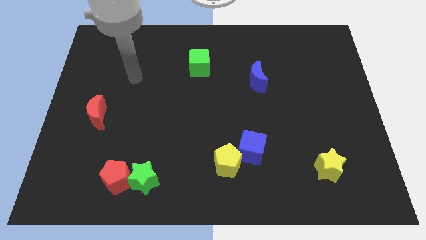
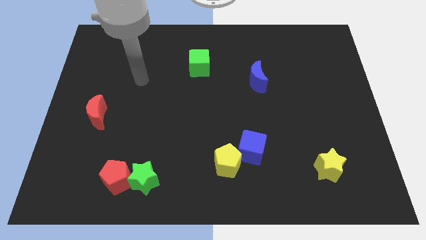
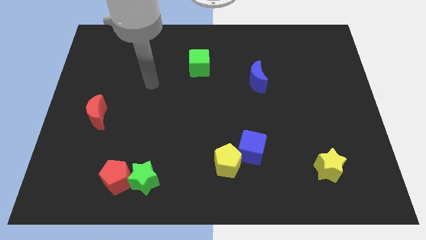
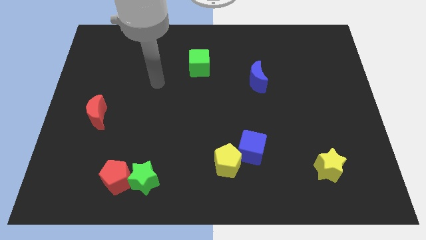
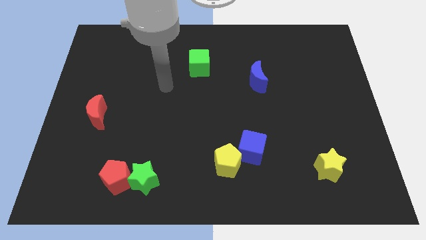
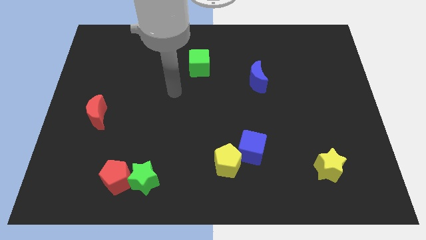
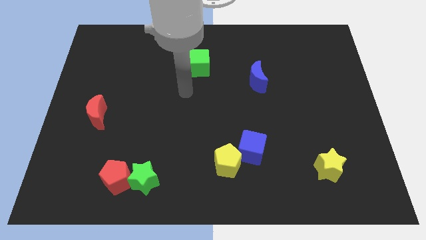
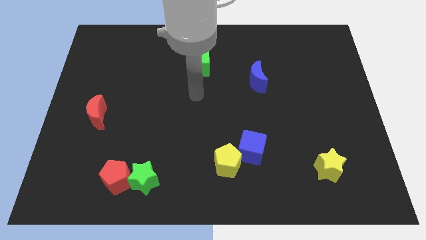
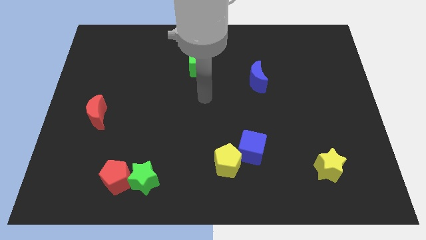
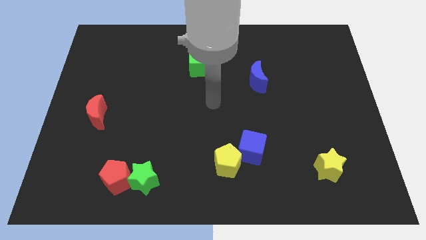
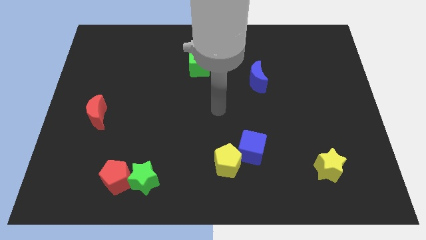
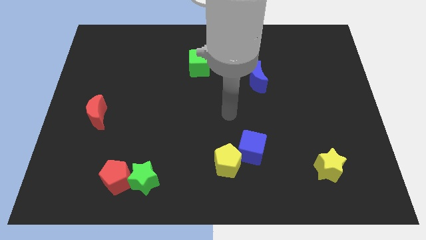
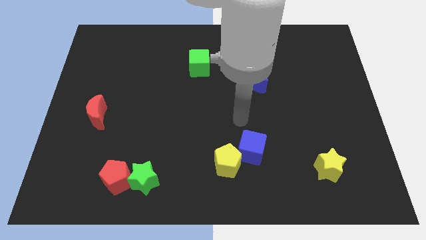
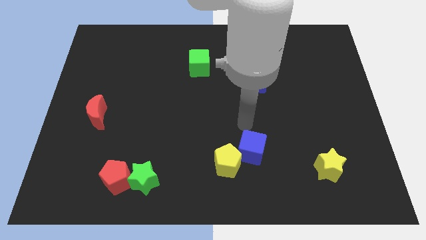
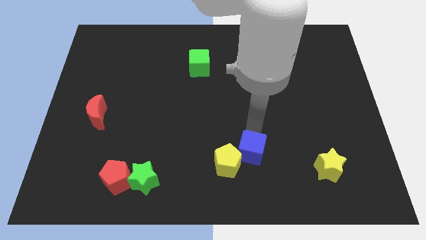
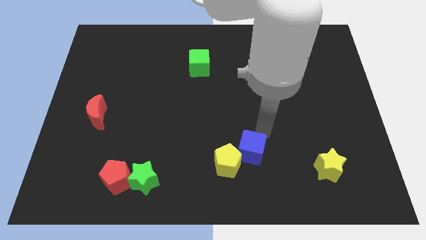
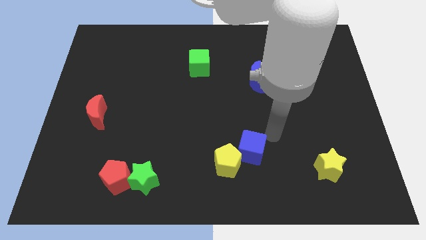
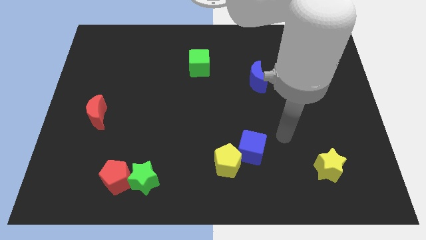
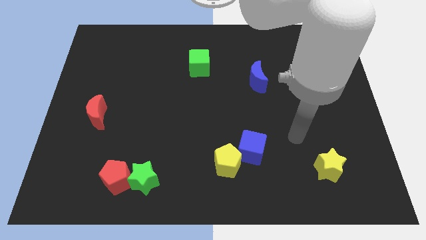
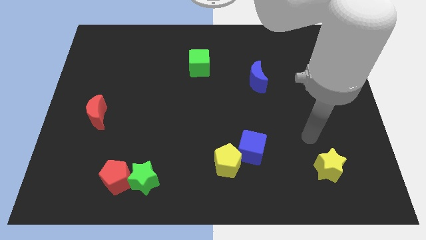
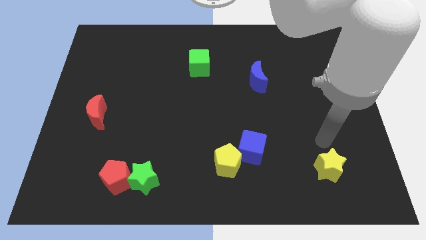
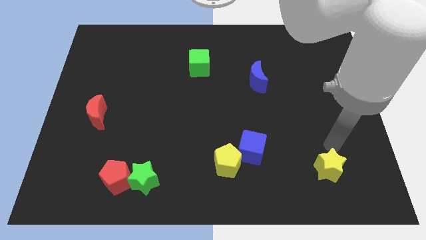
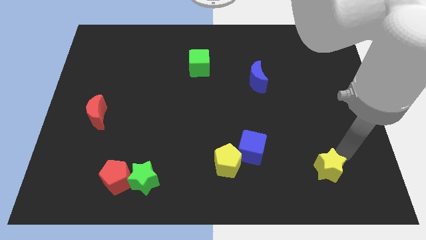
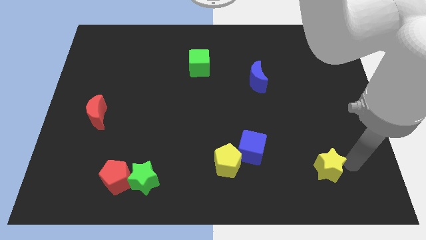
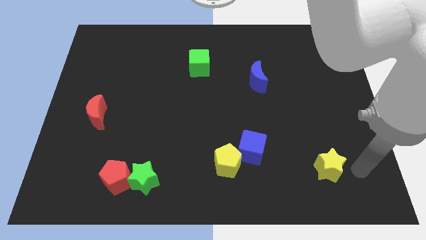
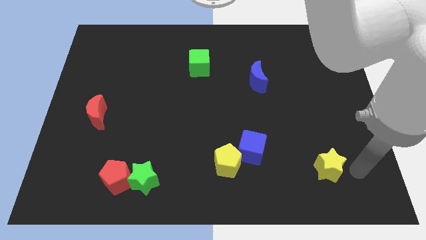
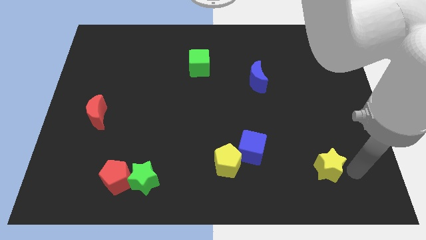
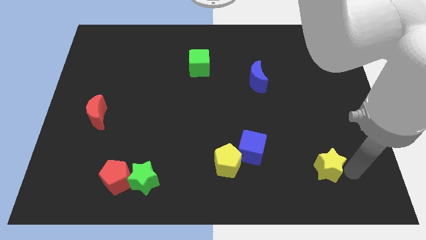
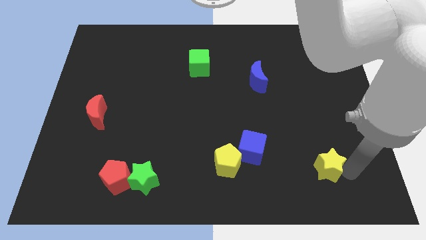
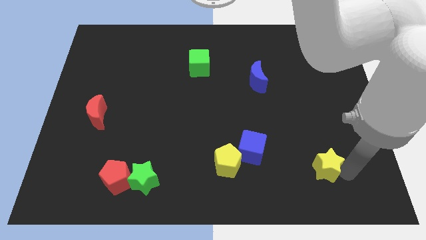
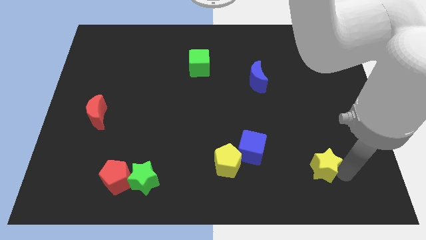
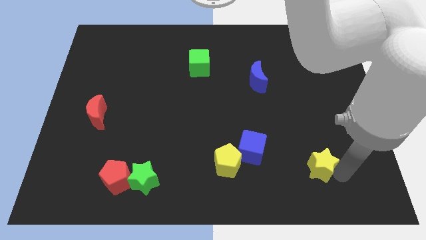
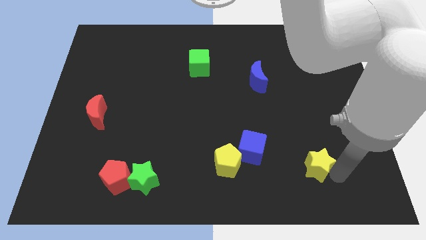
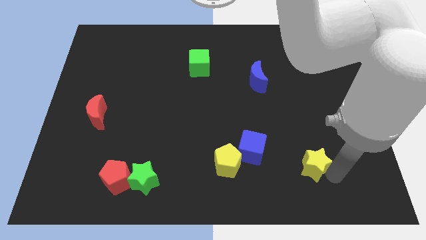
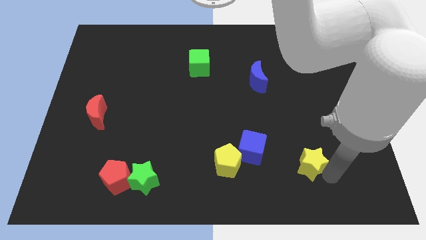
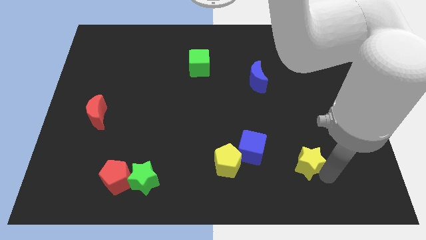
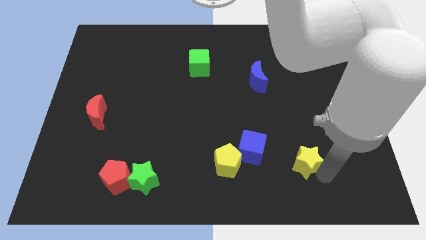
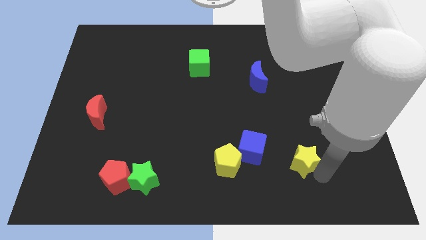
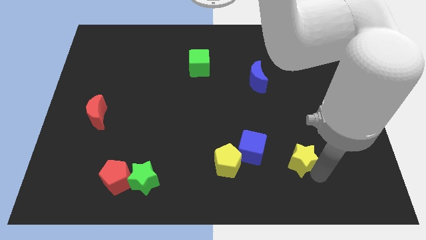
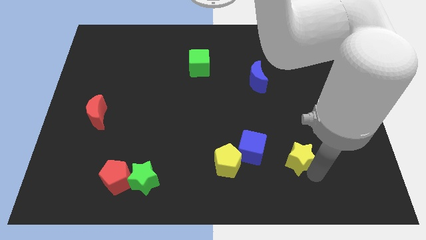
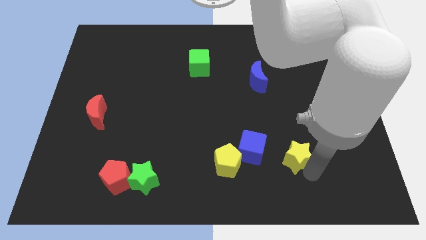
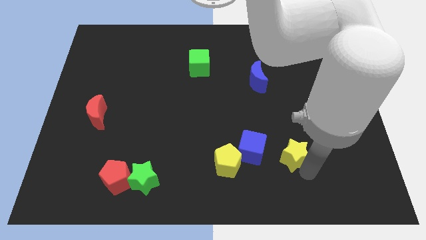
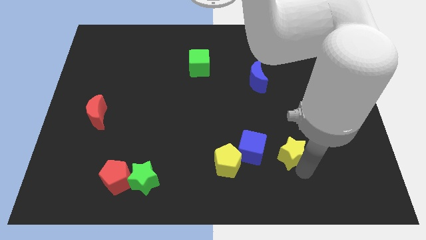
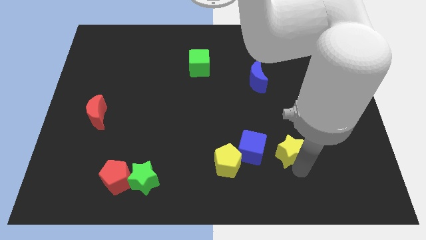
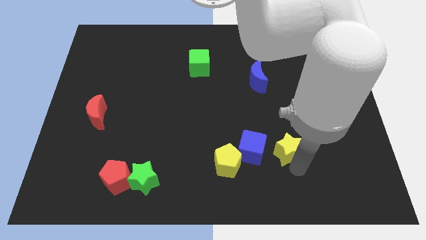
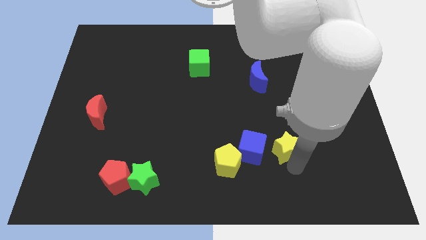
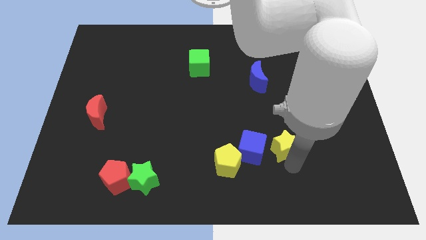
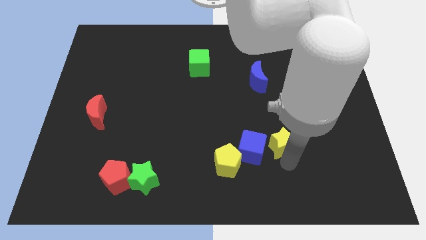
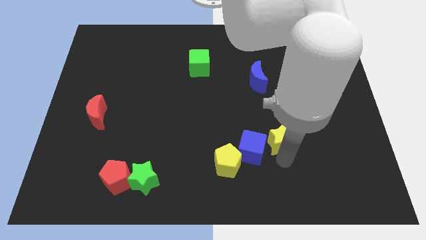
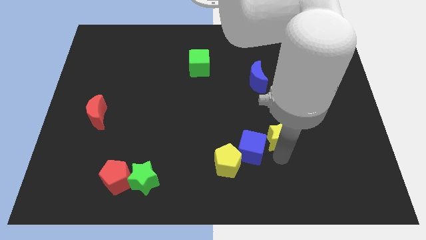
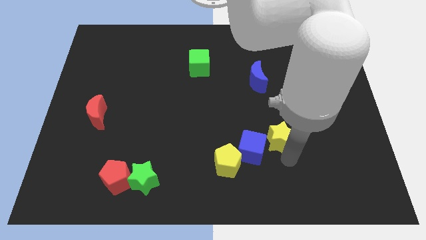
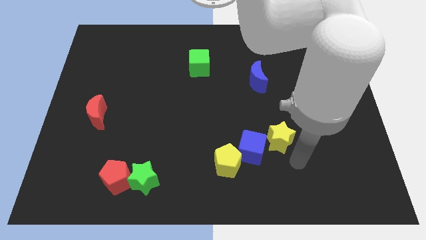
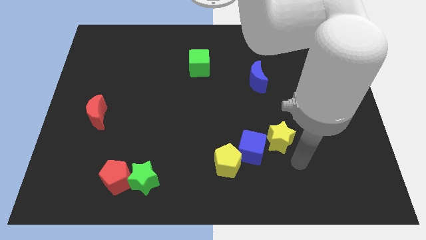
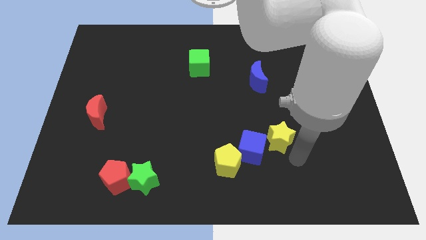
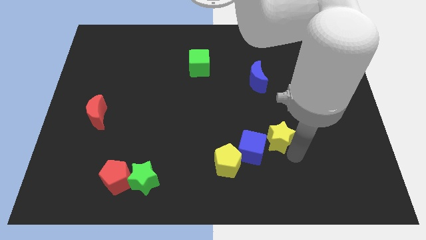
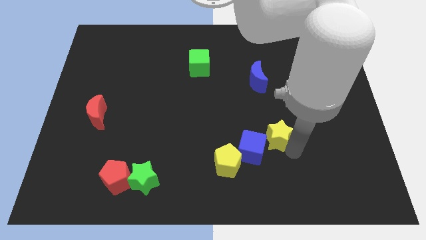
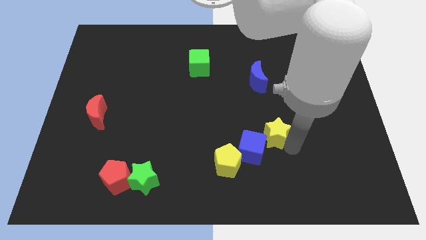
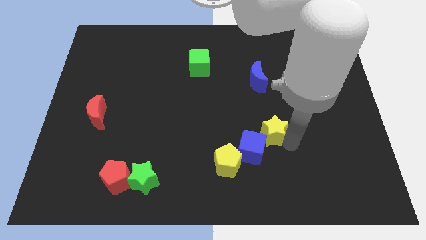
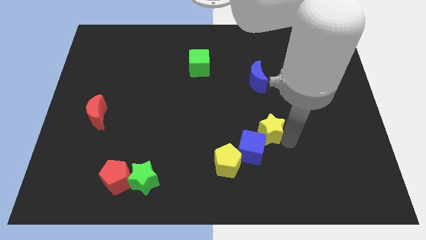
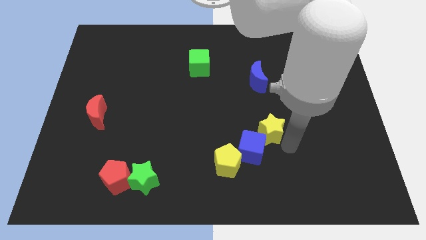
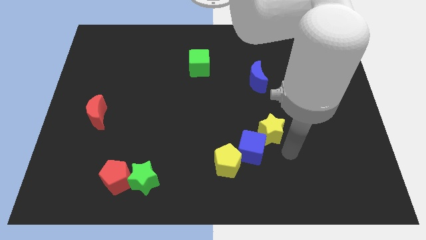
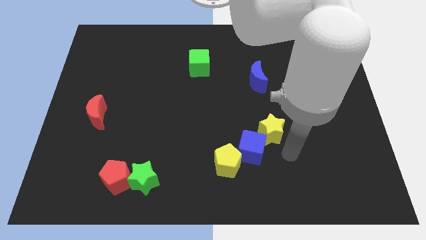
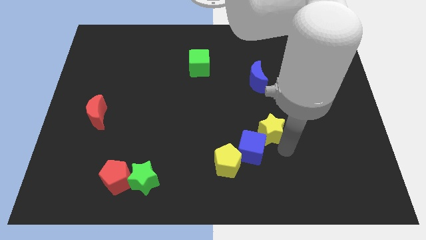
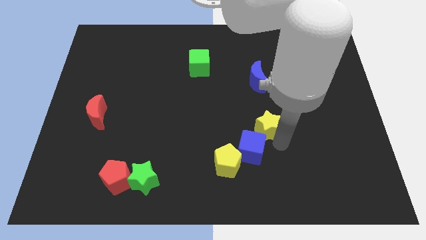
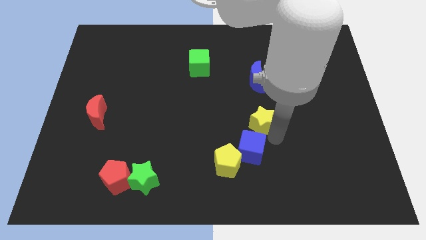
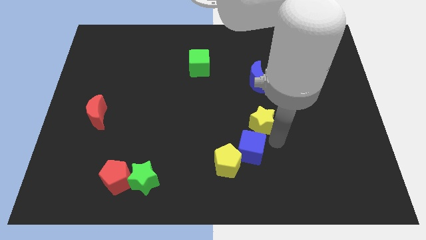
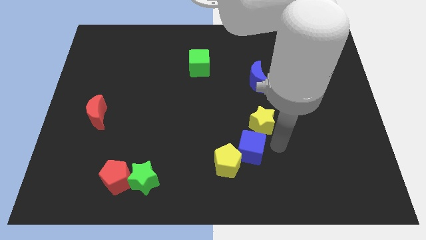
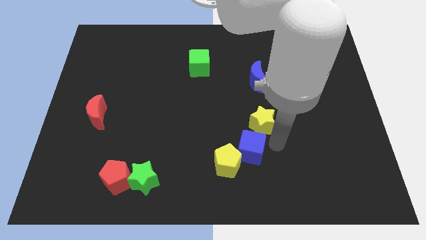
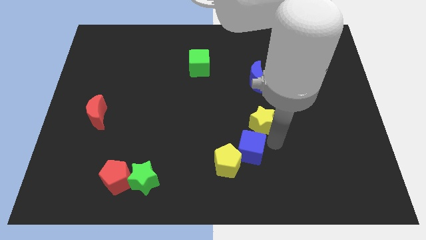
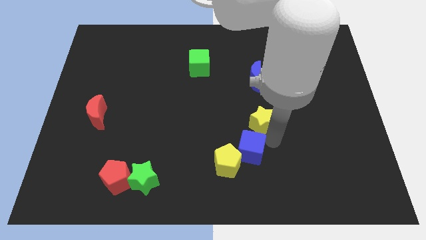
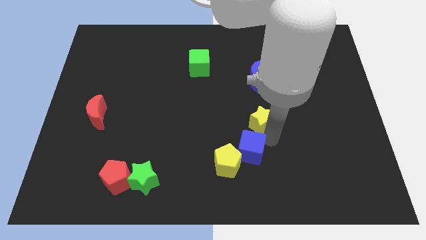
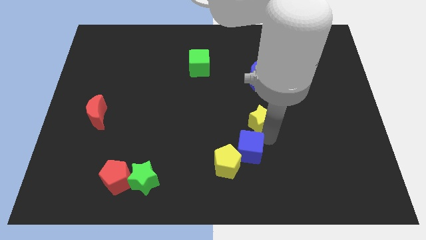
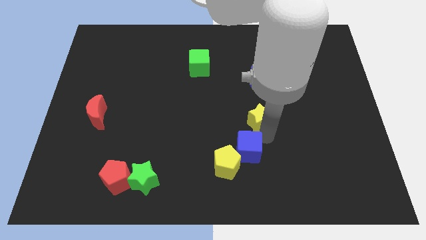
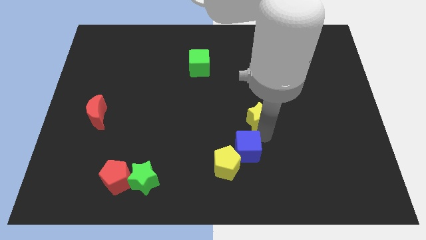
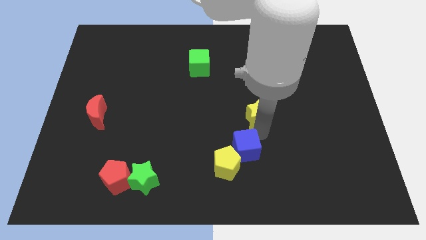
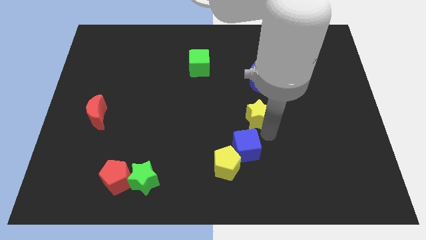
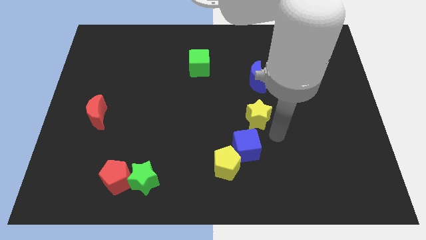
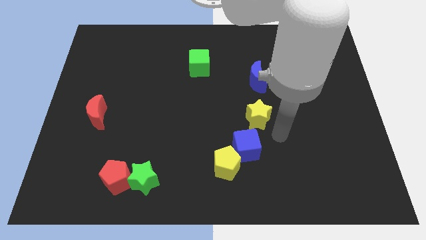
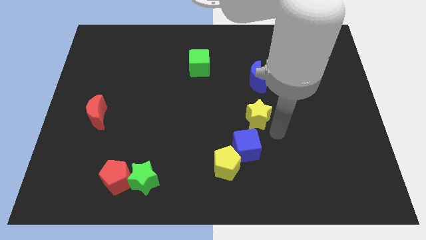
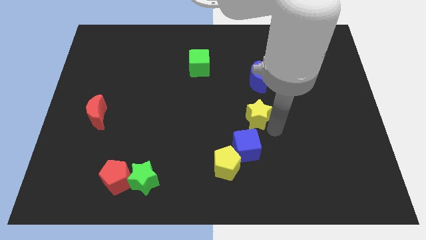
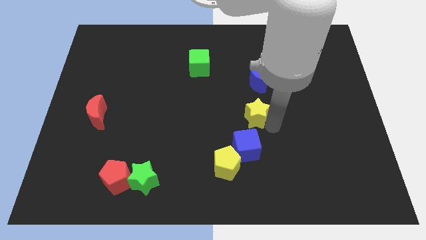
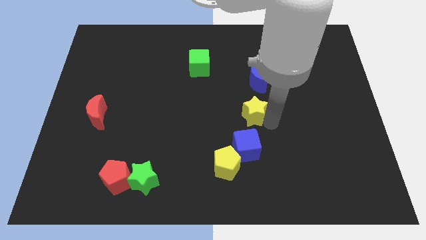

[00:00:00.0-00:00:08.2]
push the yellow star diagonally up and to the left

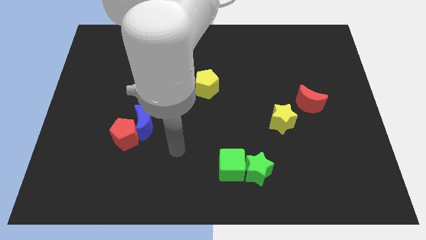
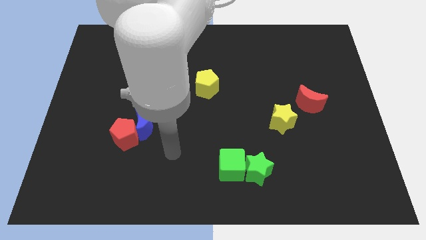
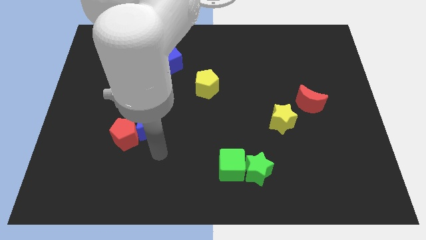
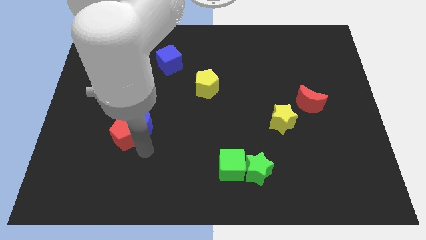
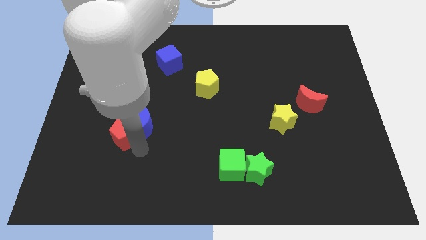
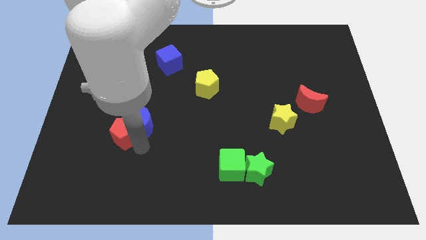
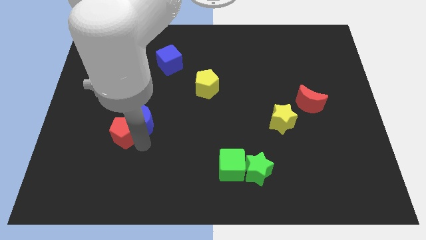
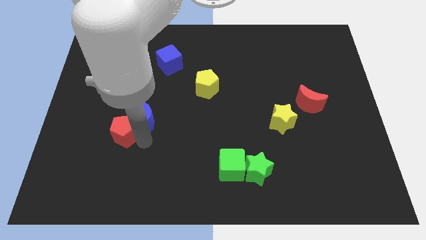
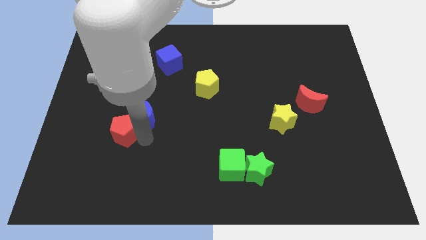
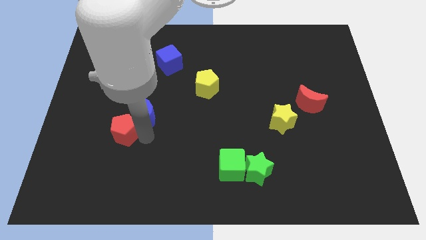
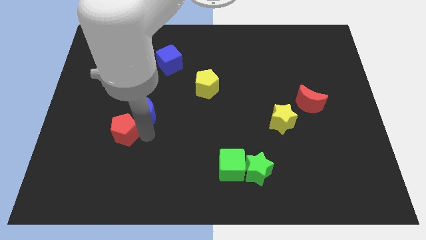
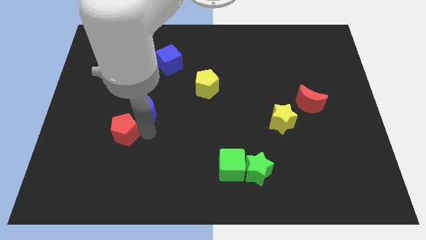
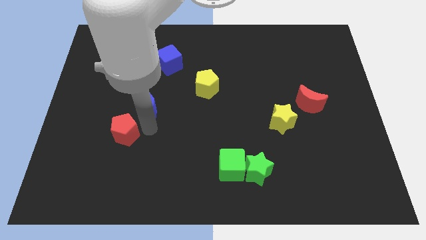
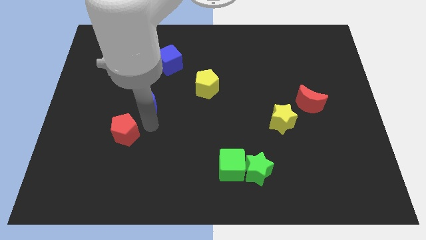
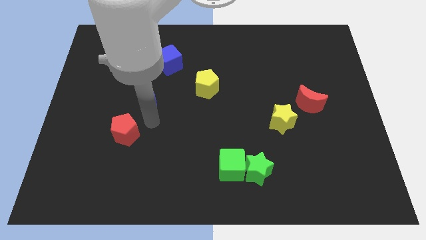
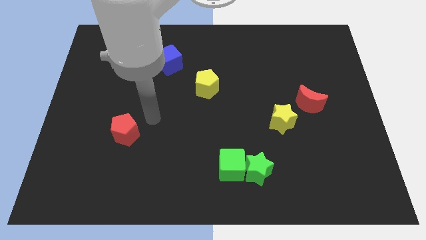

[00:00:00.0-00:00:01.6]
slightly move the blue moon up
